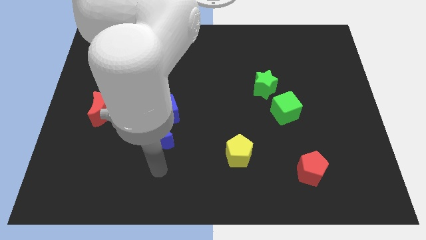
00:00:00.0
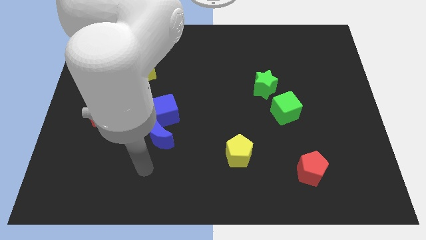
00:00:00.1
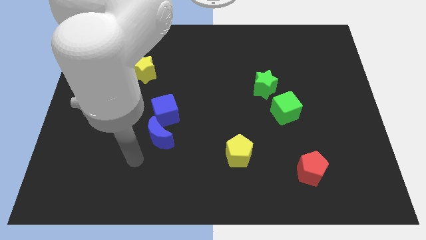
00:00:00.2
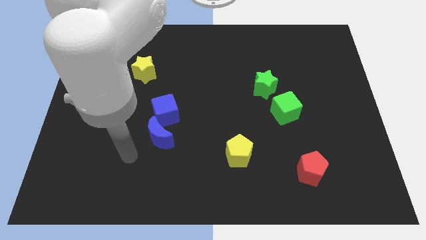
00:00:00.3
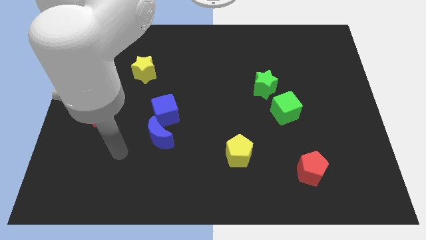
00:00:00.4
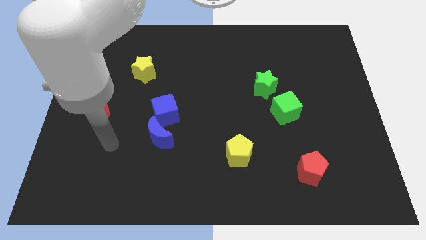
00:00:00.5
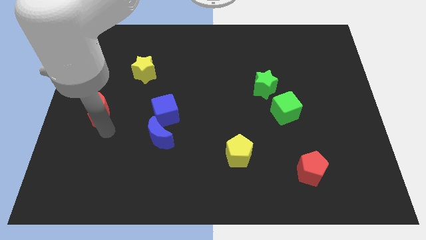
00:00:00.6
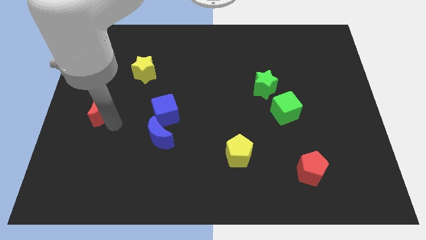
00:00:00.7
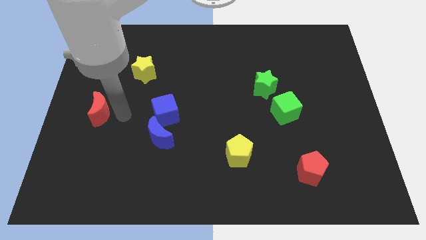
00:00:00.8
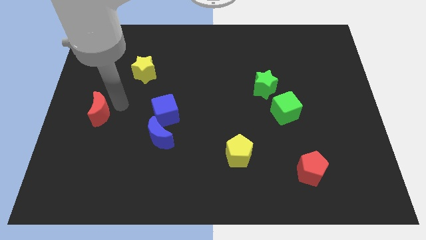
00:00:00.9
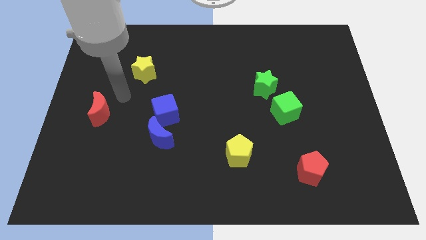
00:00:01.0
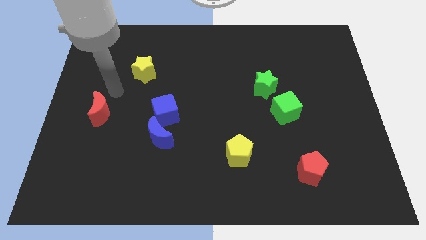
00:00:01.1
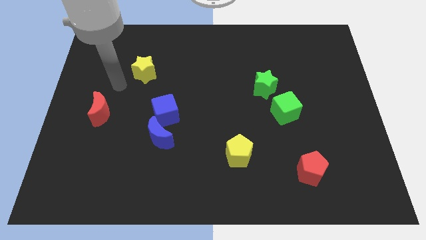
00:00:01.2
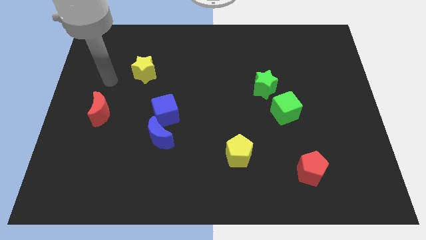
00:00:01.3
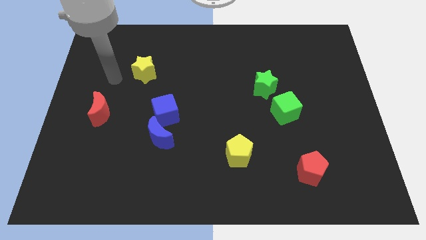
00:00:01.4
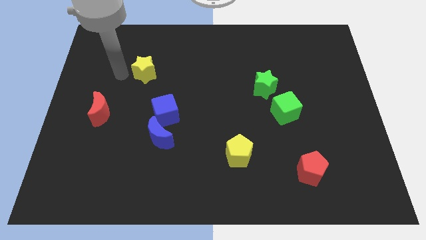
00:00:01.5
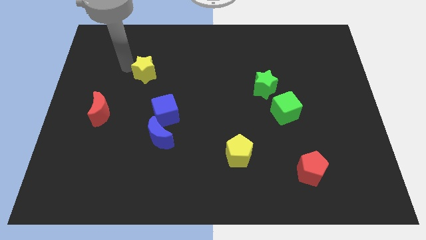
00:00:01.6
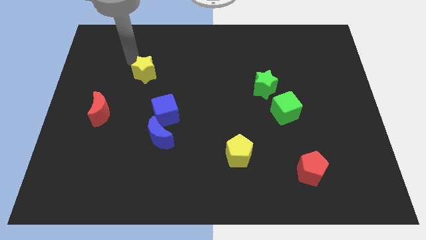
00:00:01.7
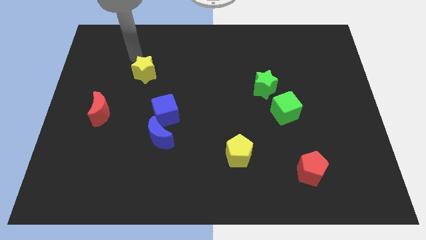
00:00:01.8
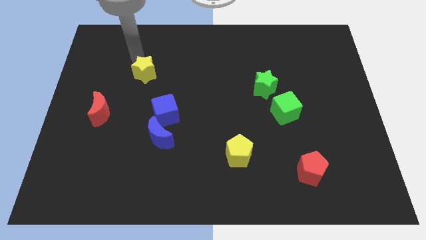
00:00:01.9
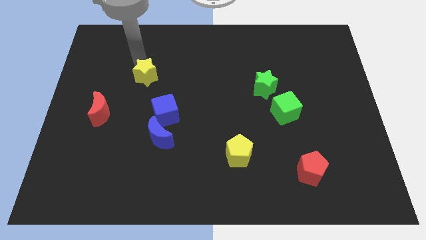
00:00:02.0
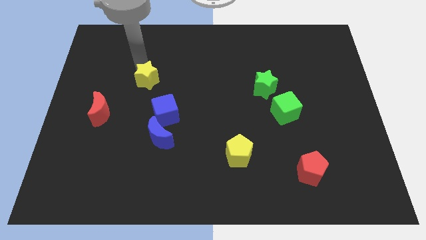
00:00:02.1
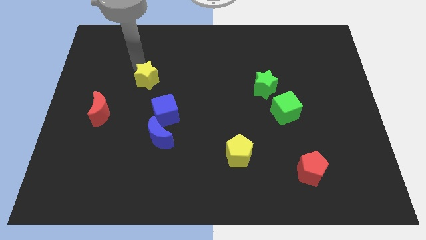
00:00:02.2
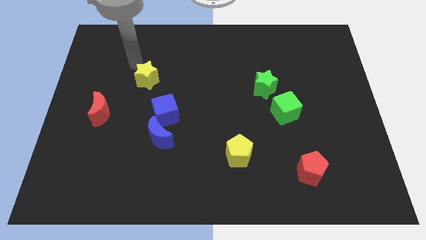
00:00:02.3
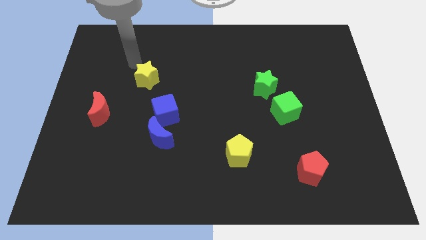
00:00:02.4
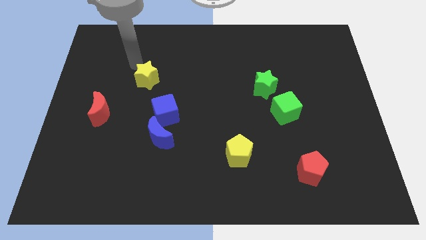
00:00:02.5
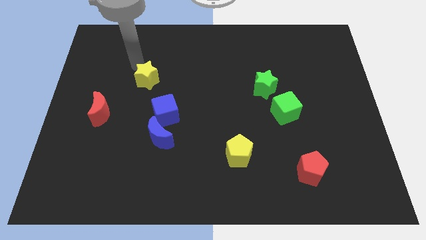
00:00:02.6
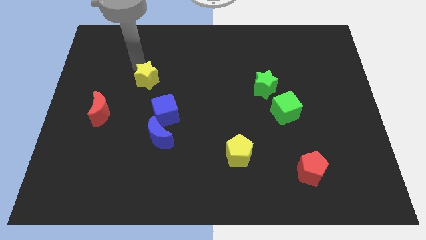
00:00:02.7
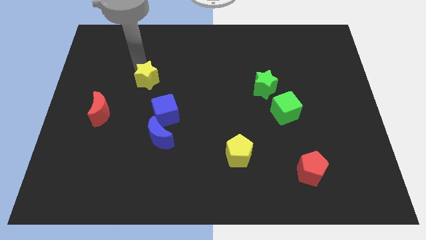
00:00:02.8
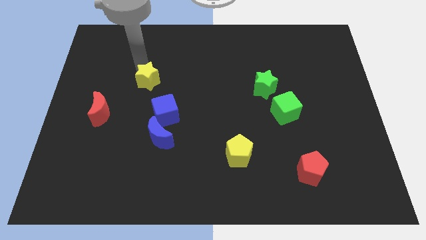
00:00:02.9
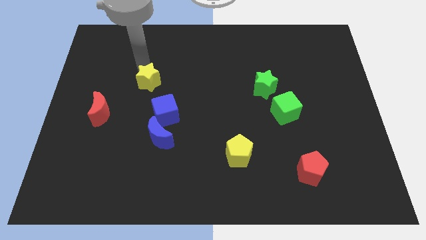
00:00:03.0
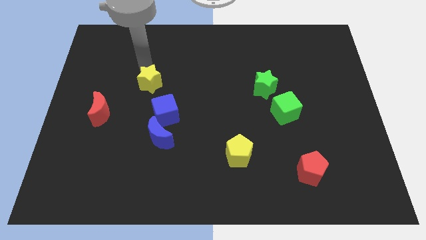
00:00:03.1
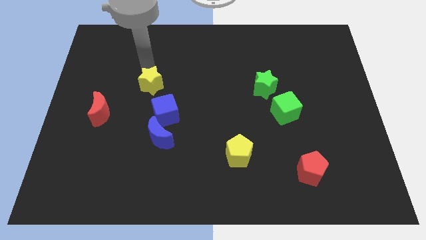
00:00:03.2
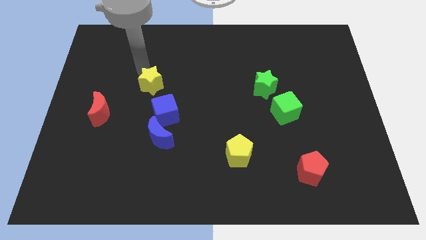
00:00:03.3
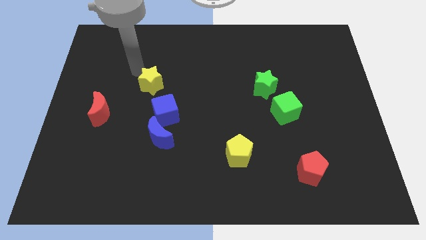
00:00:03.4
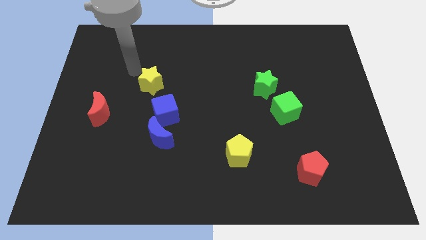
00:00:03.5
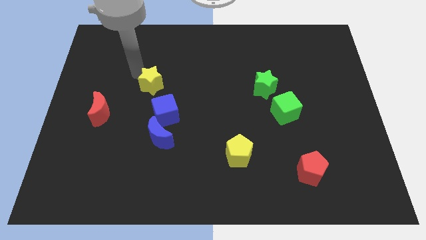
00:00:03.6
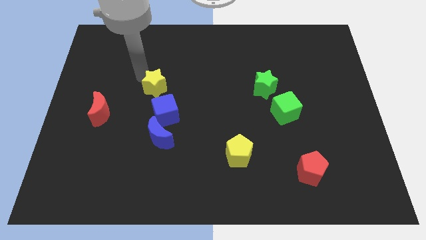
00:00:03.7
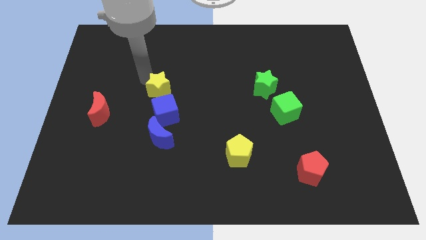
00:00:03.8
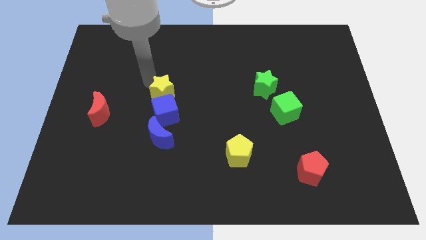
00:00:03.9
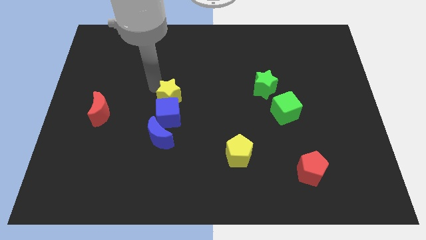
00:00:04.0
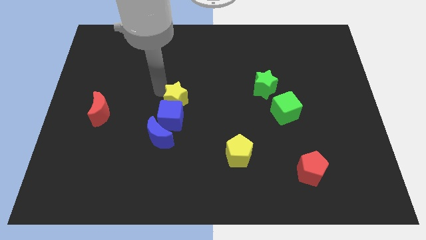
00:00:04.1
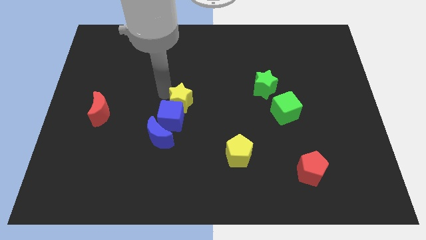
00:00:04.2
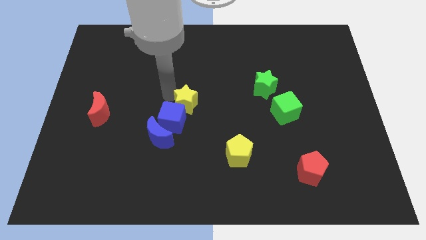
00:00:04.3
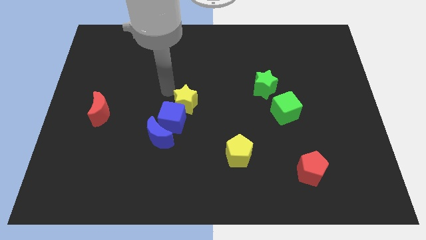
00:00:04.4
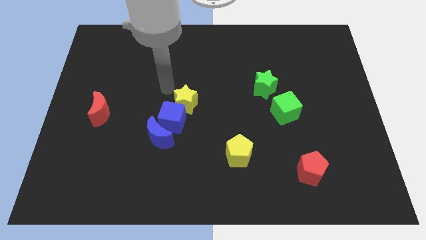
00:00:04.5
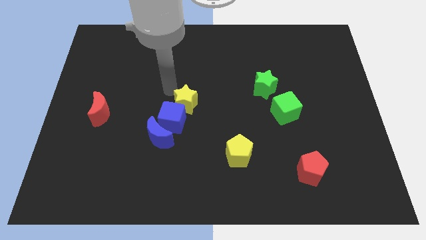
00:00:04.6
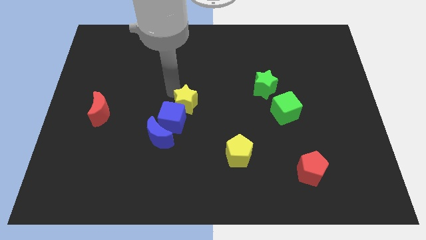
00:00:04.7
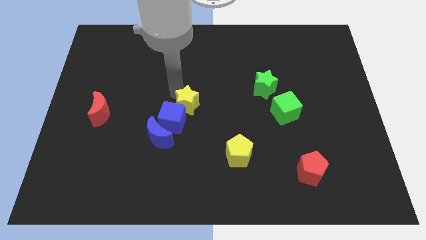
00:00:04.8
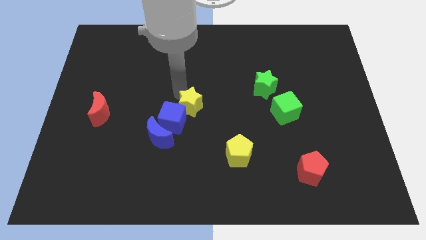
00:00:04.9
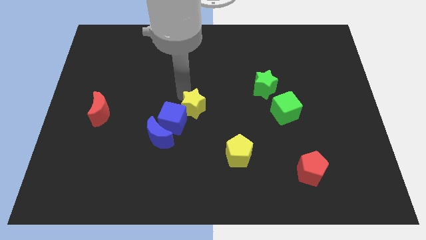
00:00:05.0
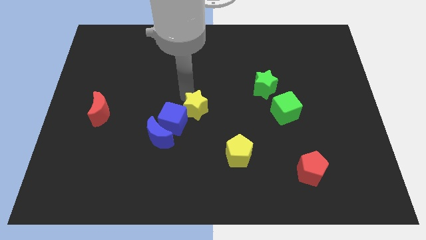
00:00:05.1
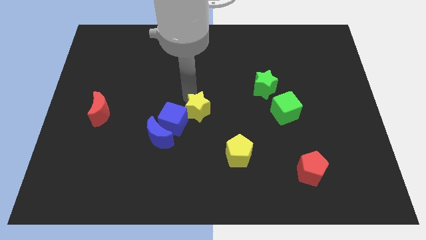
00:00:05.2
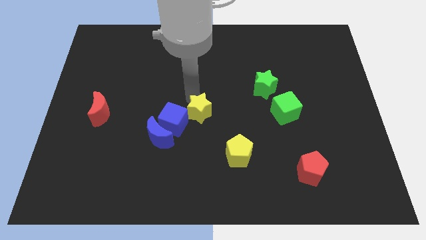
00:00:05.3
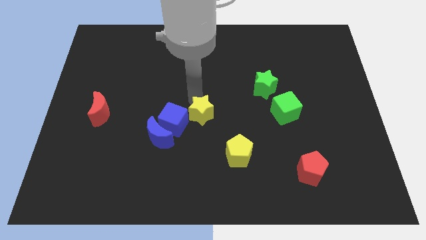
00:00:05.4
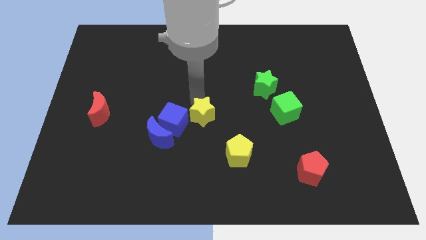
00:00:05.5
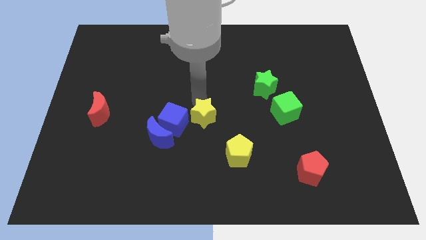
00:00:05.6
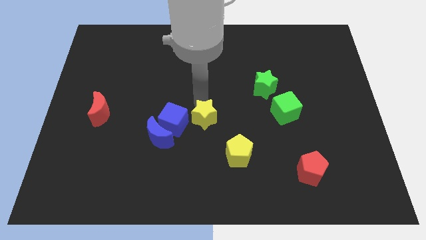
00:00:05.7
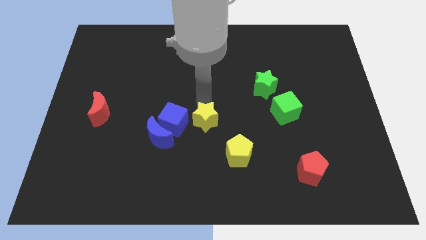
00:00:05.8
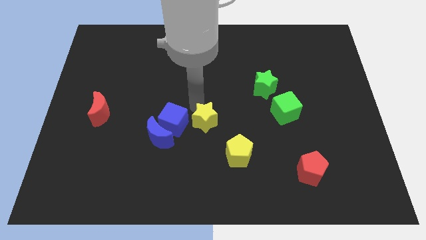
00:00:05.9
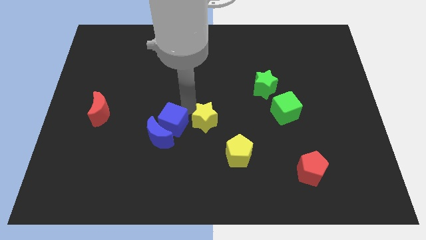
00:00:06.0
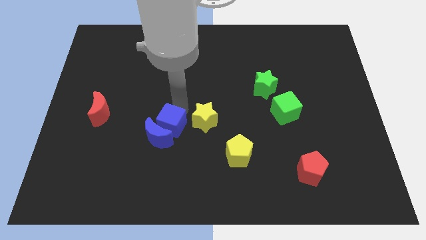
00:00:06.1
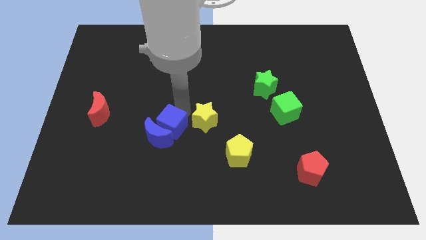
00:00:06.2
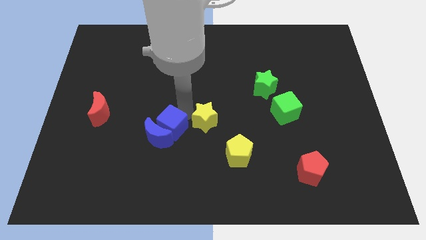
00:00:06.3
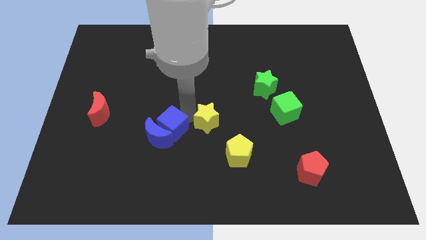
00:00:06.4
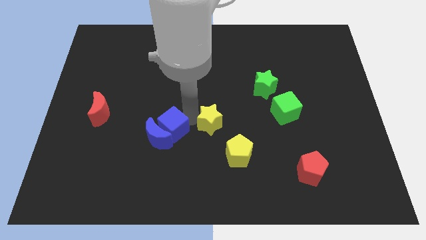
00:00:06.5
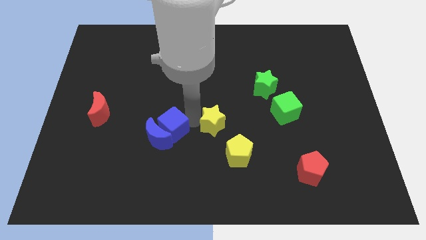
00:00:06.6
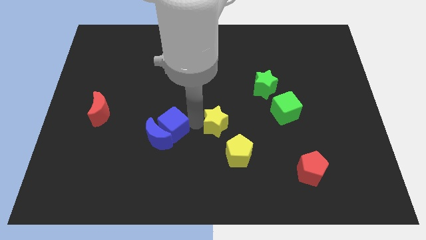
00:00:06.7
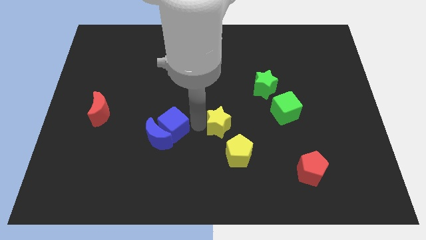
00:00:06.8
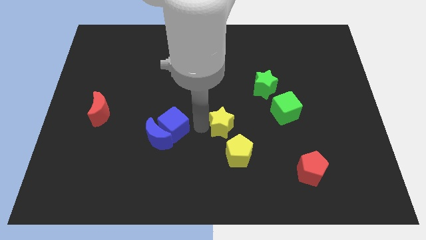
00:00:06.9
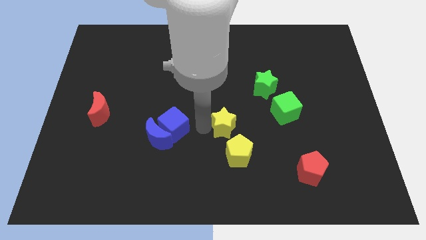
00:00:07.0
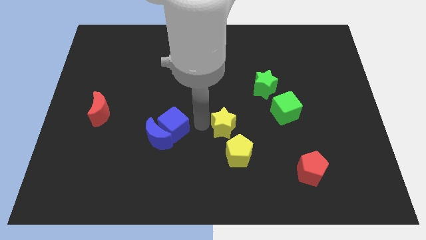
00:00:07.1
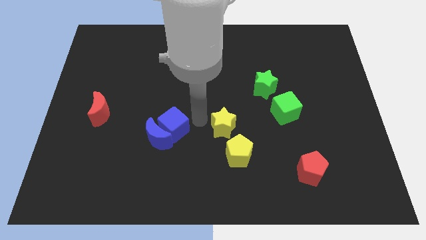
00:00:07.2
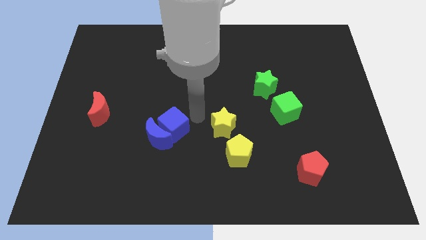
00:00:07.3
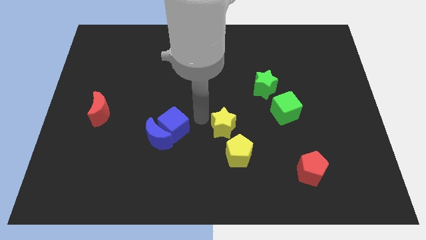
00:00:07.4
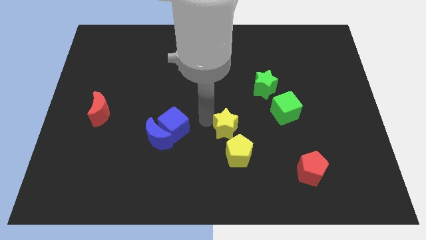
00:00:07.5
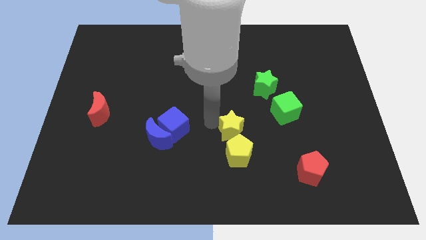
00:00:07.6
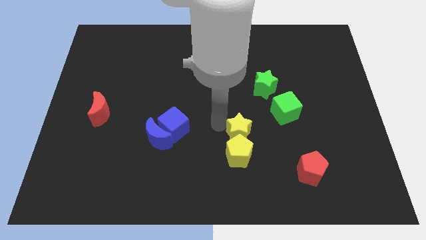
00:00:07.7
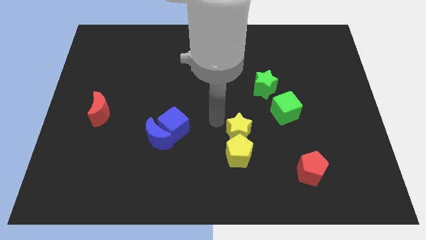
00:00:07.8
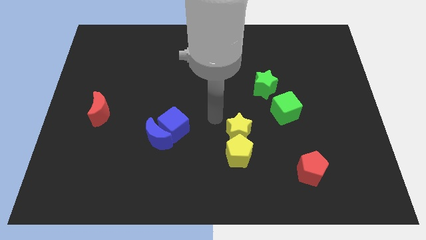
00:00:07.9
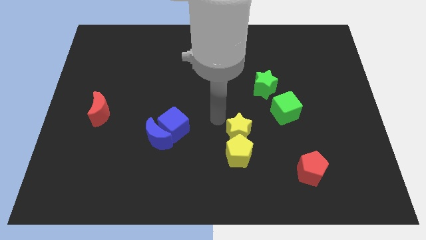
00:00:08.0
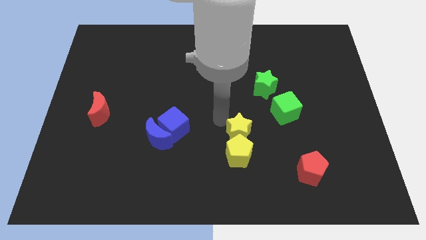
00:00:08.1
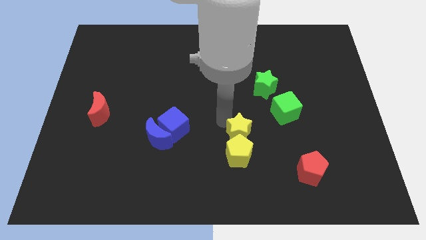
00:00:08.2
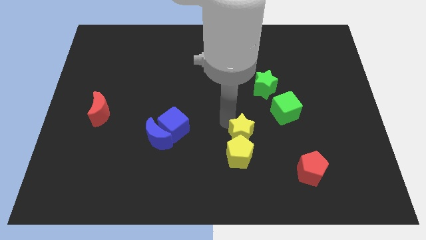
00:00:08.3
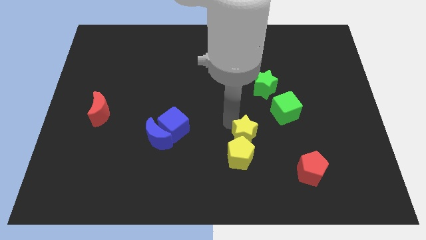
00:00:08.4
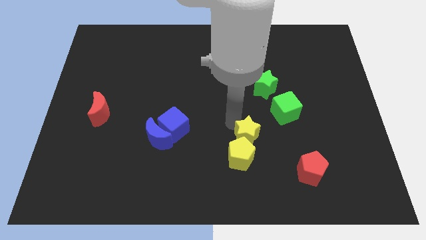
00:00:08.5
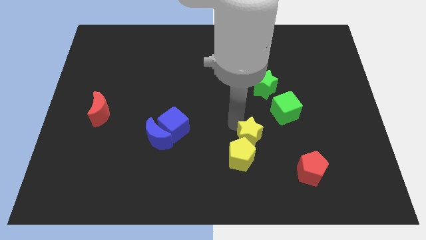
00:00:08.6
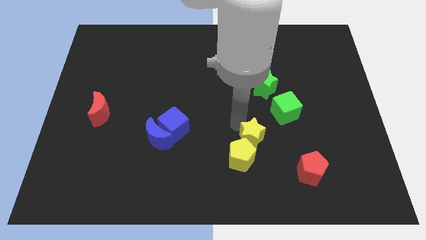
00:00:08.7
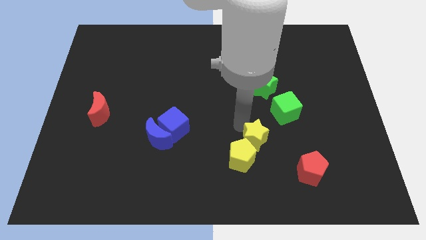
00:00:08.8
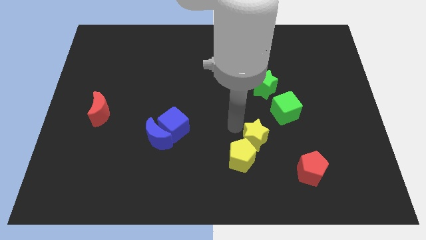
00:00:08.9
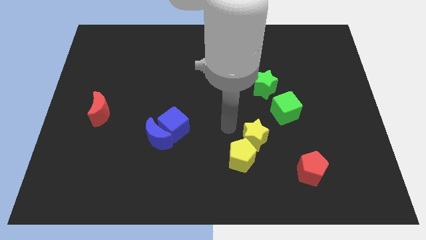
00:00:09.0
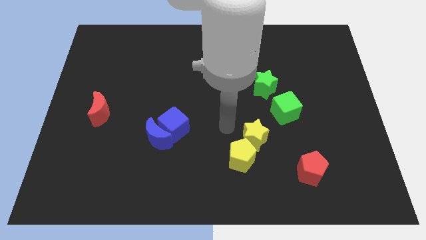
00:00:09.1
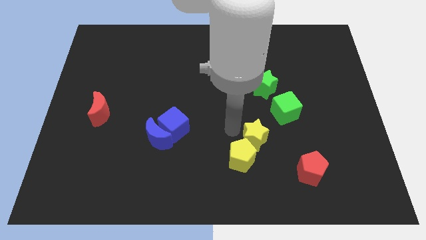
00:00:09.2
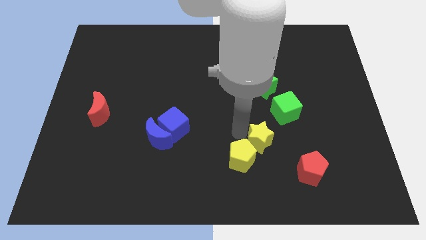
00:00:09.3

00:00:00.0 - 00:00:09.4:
push the yellow star to the top left side of the red pentagon
